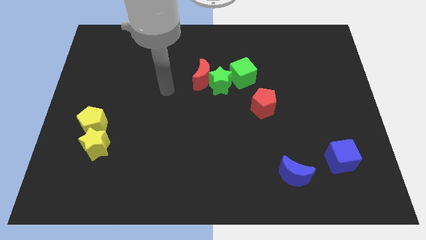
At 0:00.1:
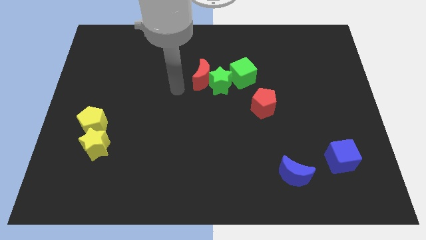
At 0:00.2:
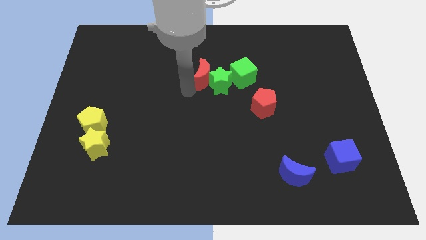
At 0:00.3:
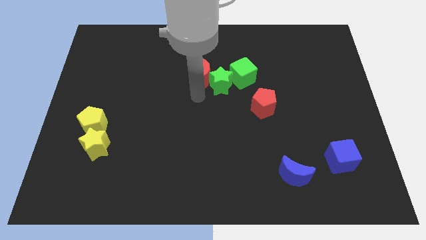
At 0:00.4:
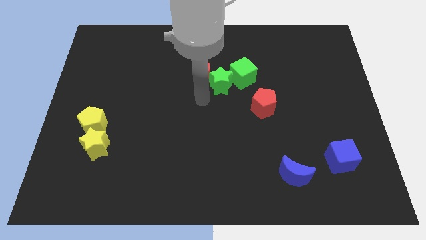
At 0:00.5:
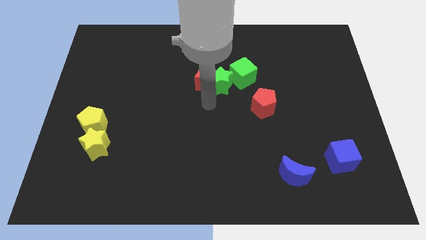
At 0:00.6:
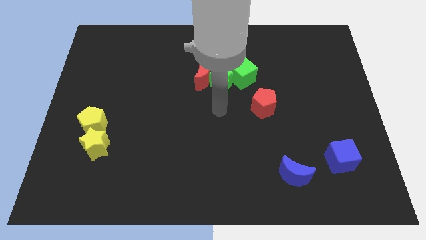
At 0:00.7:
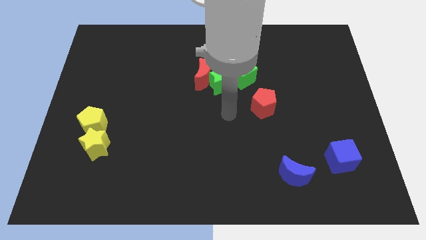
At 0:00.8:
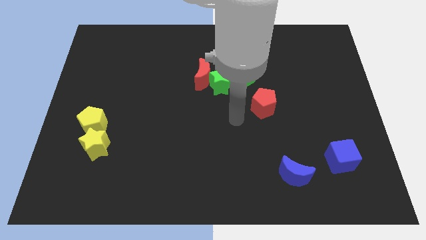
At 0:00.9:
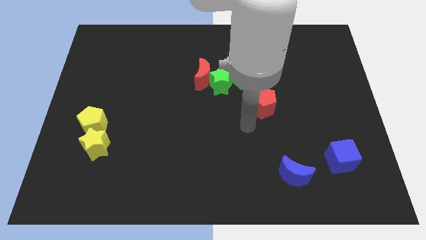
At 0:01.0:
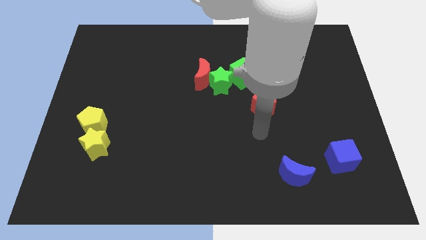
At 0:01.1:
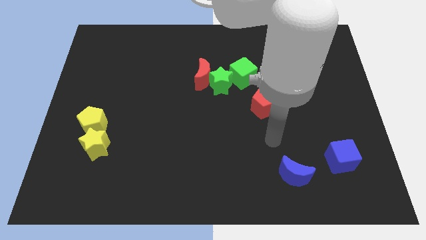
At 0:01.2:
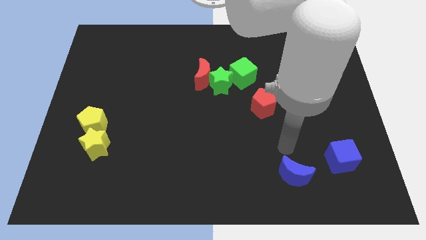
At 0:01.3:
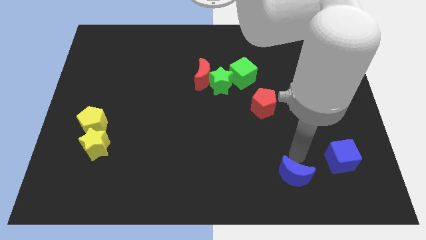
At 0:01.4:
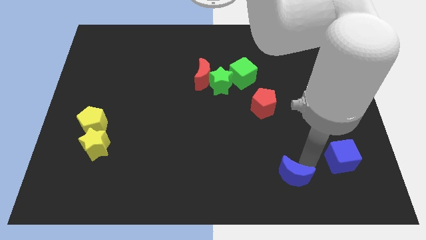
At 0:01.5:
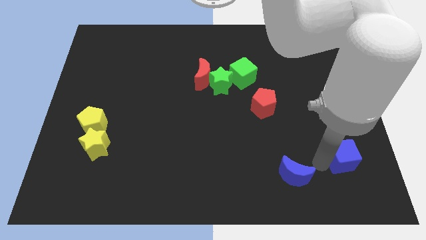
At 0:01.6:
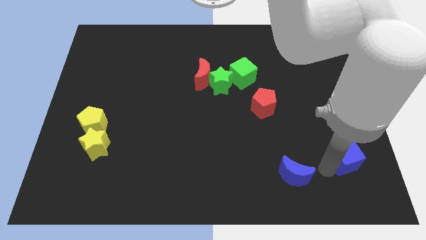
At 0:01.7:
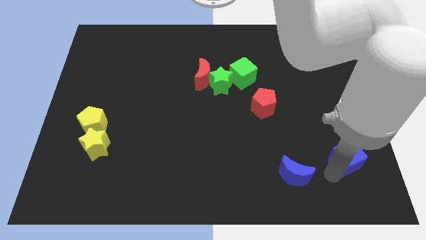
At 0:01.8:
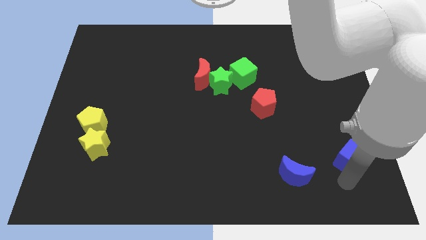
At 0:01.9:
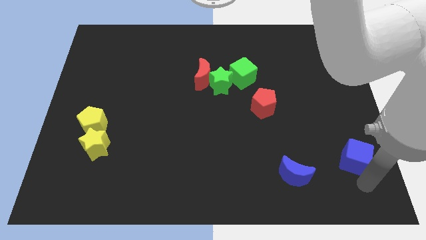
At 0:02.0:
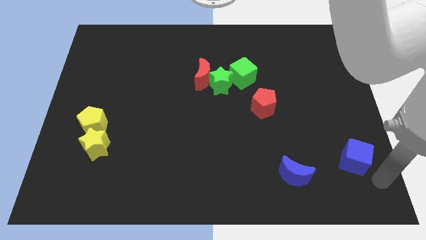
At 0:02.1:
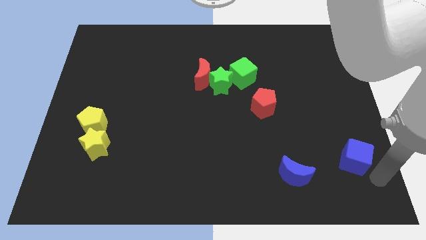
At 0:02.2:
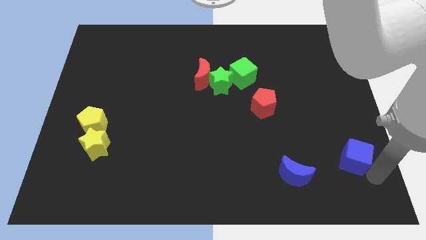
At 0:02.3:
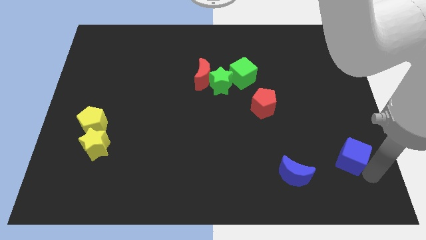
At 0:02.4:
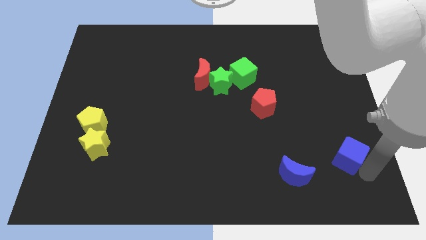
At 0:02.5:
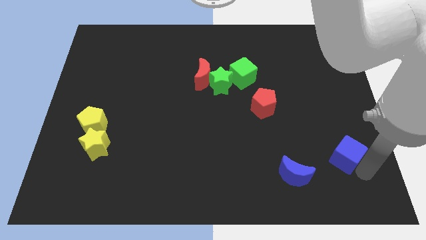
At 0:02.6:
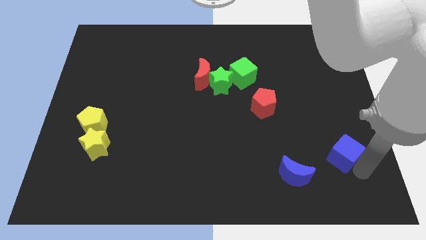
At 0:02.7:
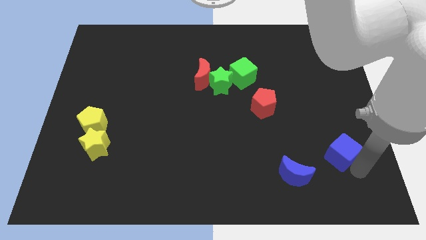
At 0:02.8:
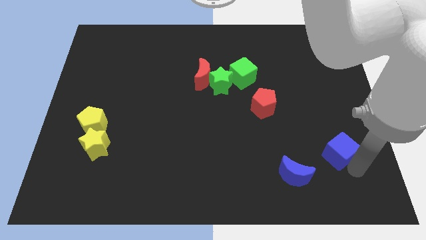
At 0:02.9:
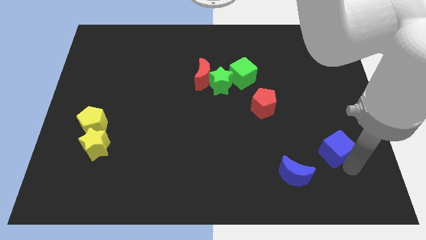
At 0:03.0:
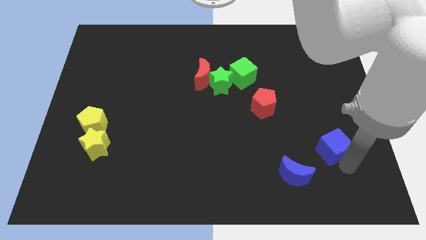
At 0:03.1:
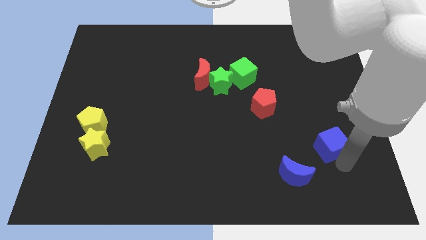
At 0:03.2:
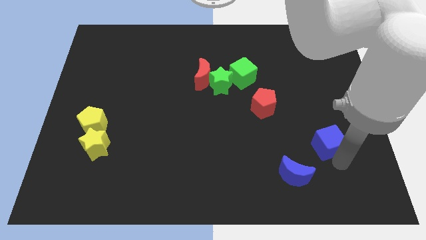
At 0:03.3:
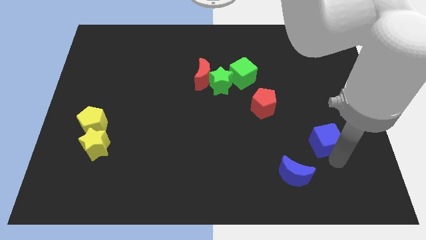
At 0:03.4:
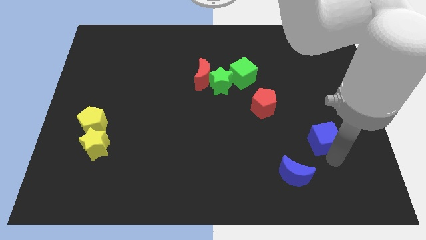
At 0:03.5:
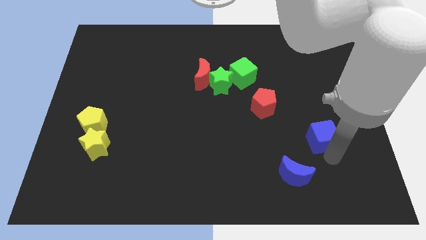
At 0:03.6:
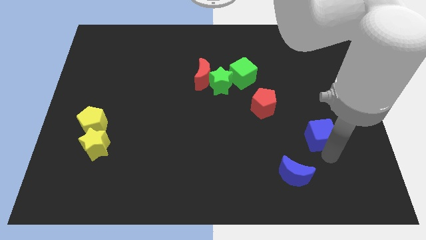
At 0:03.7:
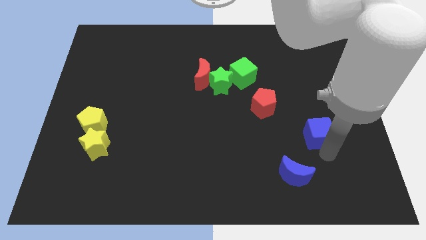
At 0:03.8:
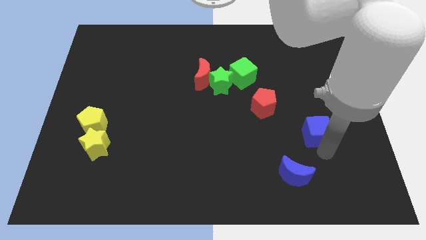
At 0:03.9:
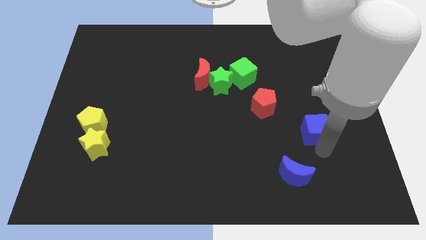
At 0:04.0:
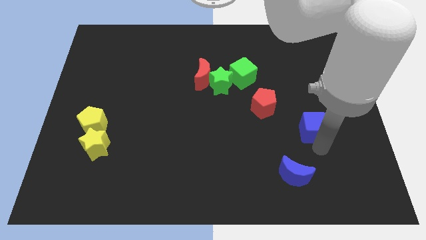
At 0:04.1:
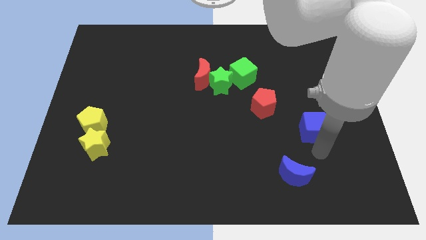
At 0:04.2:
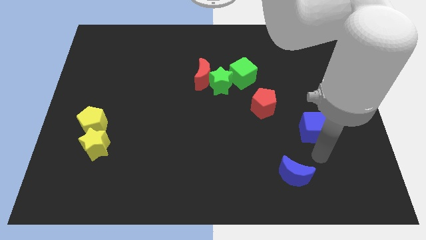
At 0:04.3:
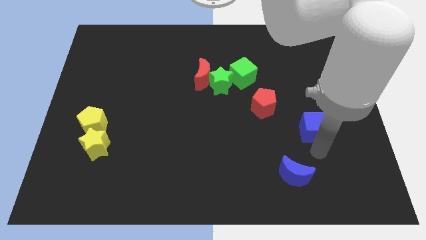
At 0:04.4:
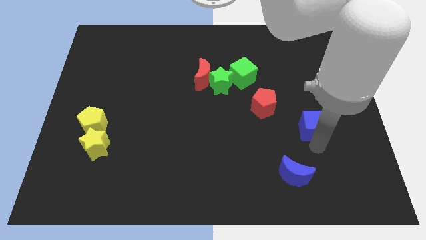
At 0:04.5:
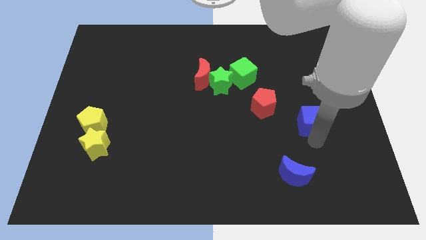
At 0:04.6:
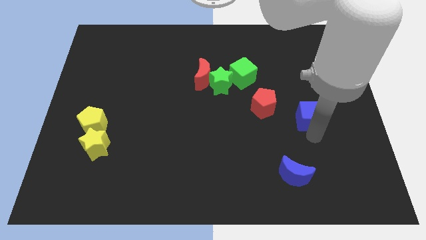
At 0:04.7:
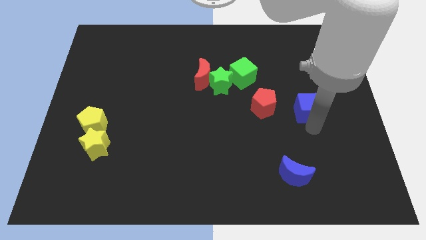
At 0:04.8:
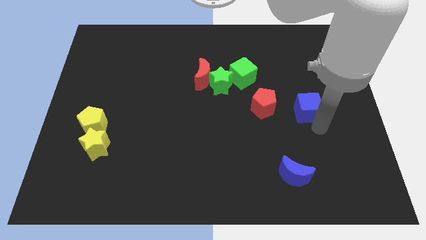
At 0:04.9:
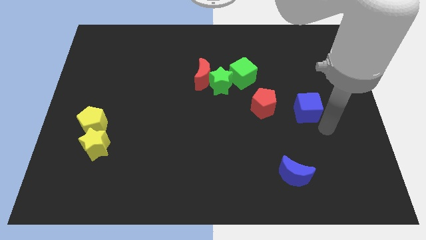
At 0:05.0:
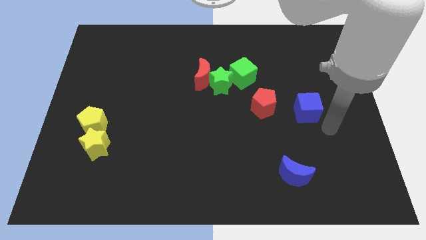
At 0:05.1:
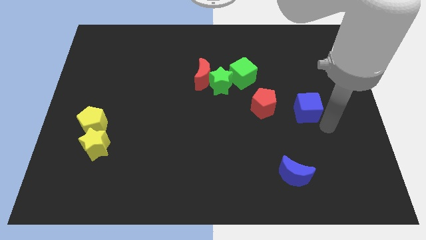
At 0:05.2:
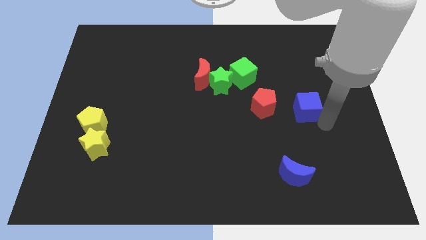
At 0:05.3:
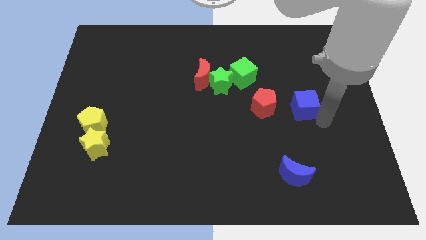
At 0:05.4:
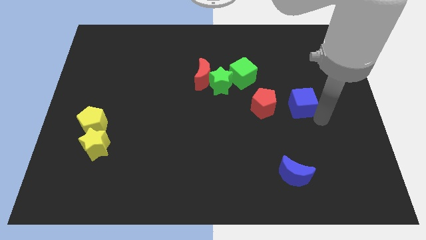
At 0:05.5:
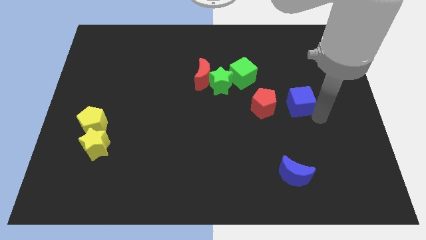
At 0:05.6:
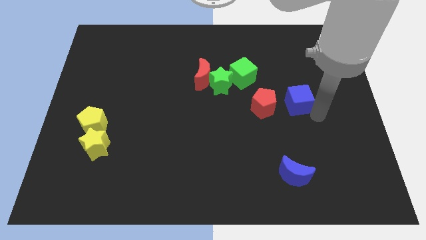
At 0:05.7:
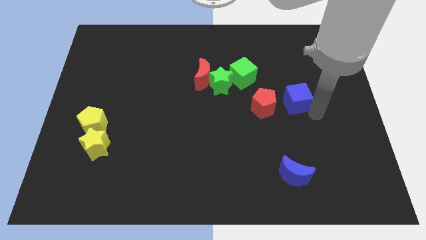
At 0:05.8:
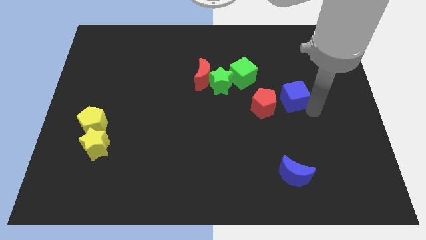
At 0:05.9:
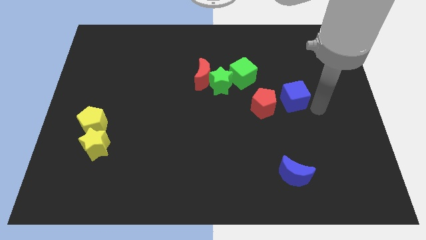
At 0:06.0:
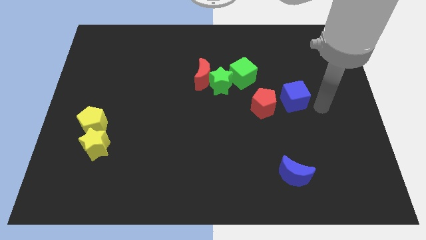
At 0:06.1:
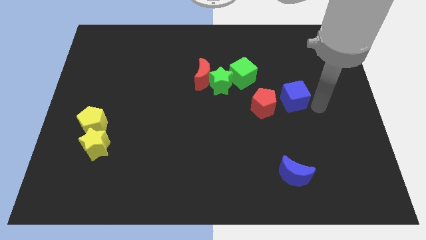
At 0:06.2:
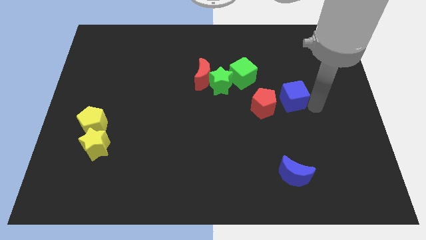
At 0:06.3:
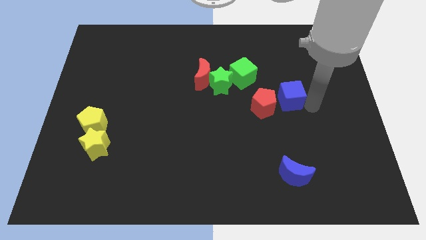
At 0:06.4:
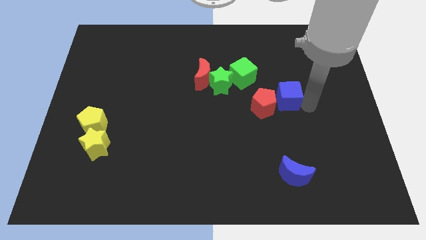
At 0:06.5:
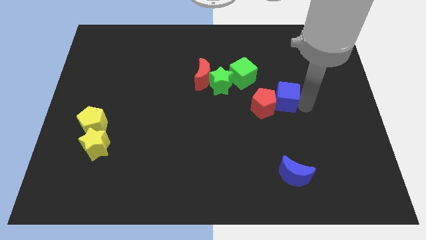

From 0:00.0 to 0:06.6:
move the blue cube diagonally down and to the right of the green cube
